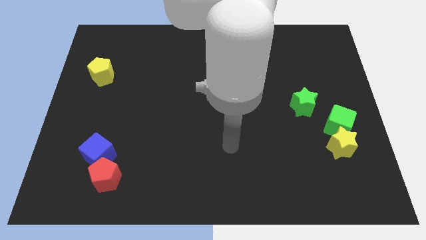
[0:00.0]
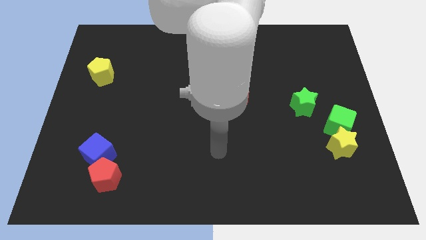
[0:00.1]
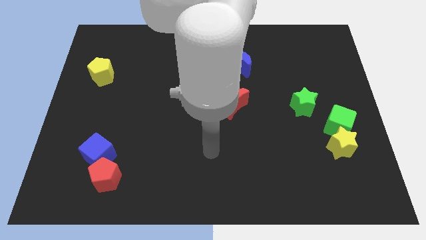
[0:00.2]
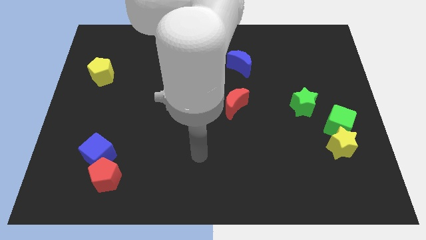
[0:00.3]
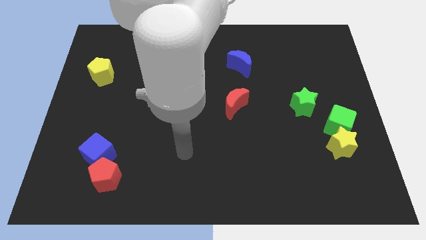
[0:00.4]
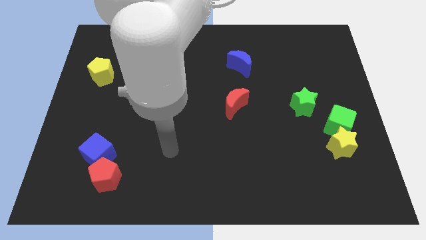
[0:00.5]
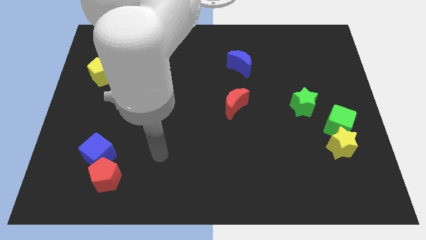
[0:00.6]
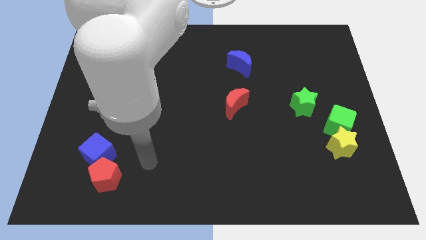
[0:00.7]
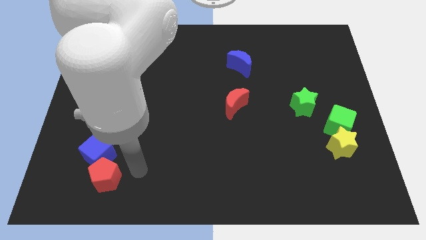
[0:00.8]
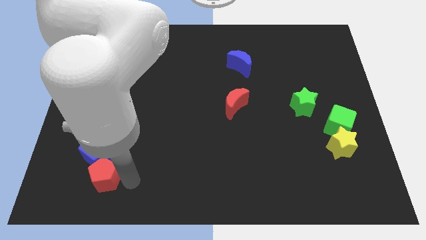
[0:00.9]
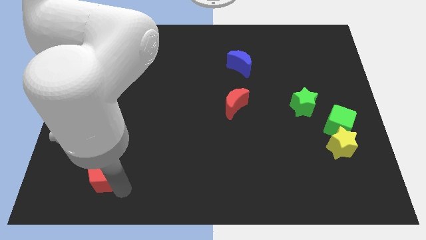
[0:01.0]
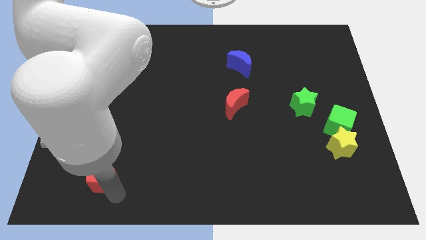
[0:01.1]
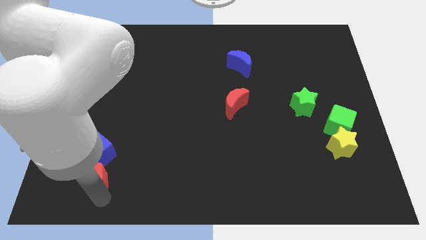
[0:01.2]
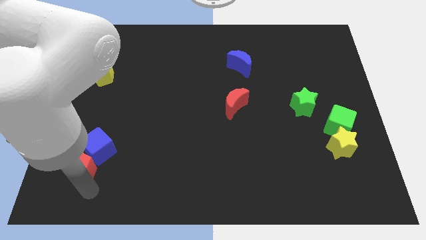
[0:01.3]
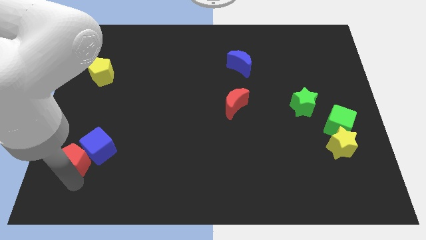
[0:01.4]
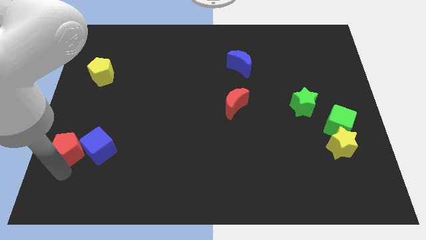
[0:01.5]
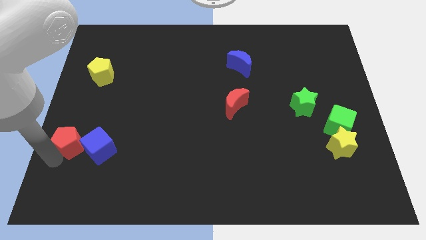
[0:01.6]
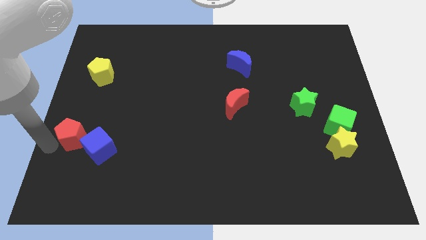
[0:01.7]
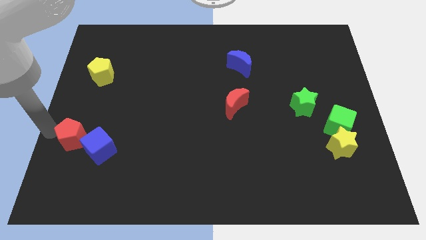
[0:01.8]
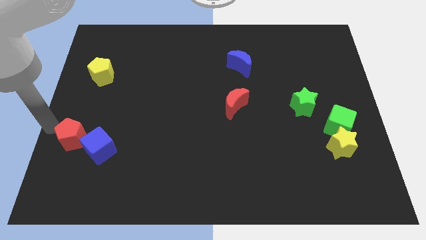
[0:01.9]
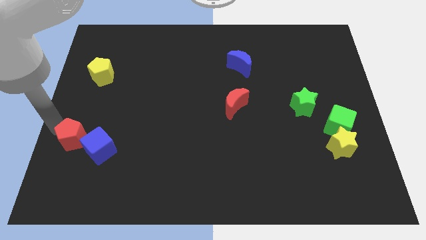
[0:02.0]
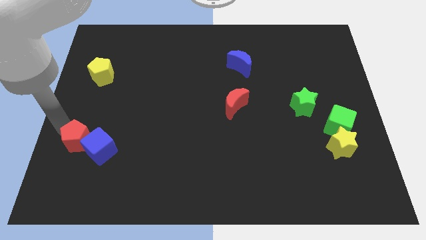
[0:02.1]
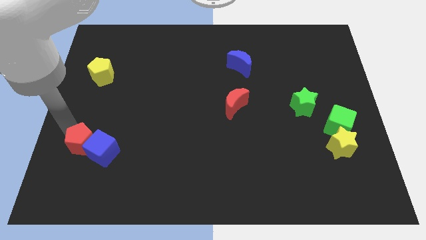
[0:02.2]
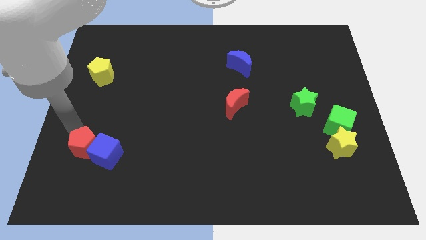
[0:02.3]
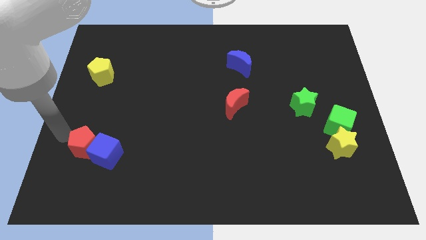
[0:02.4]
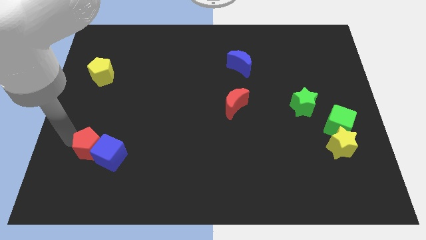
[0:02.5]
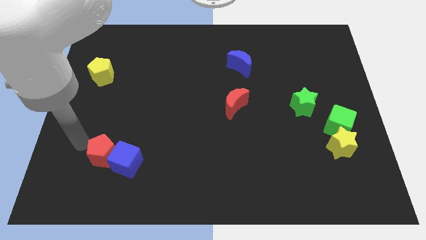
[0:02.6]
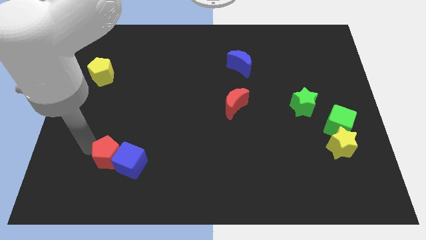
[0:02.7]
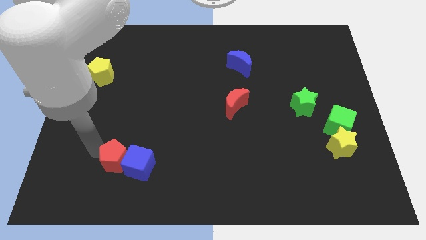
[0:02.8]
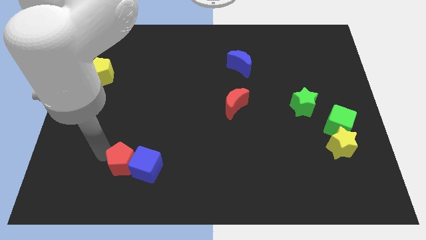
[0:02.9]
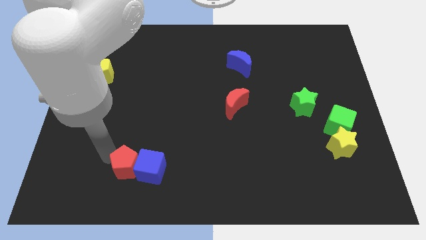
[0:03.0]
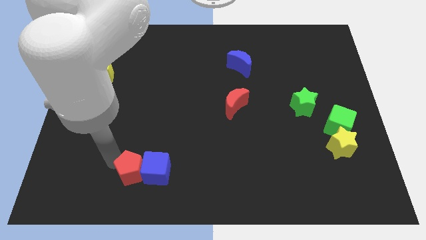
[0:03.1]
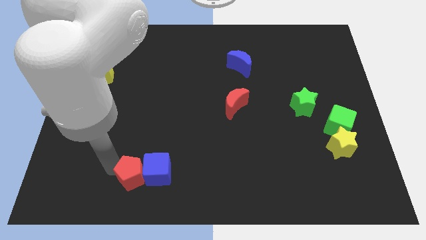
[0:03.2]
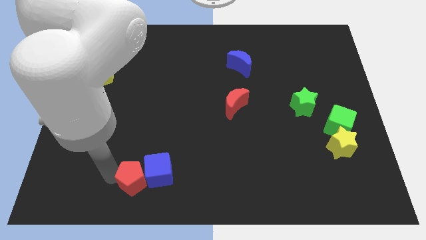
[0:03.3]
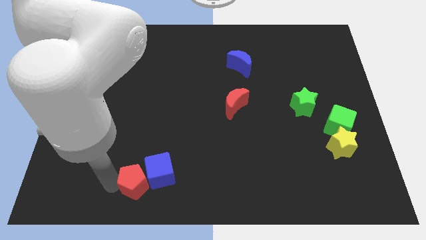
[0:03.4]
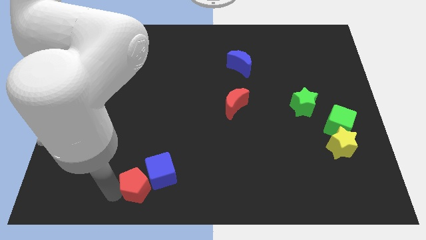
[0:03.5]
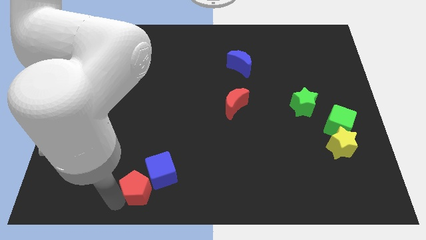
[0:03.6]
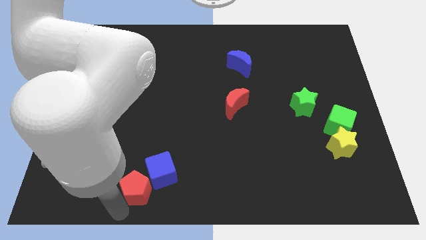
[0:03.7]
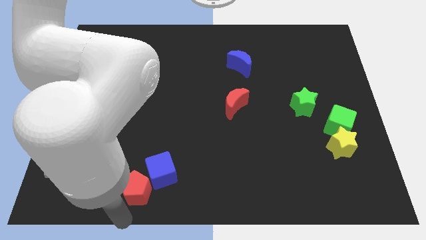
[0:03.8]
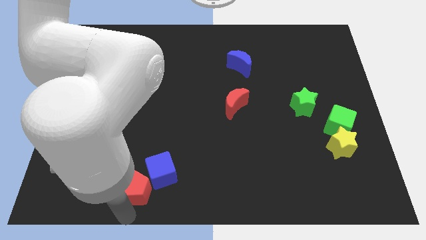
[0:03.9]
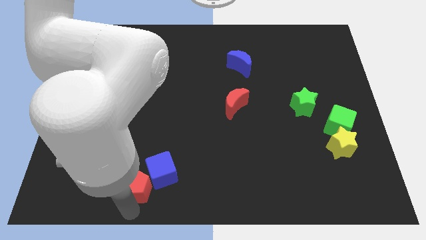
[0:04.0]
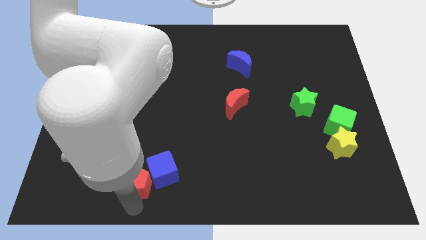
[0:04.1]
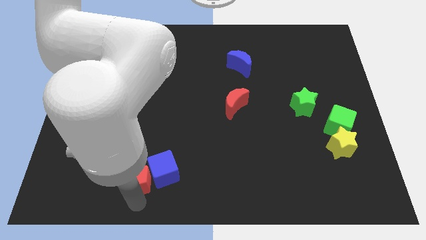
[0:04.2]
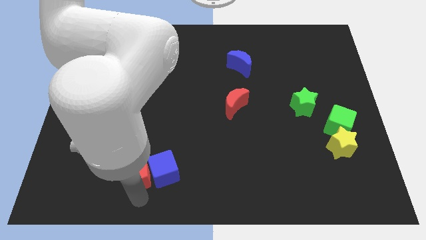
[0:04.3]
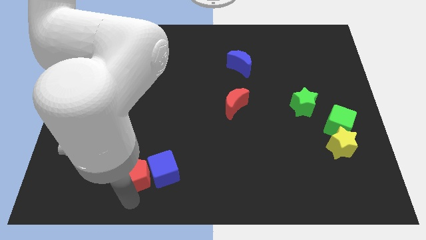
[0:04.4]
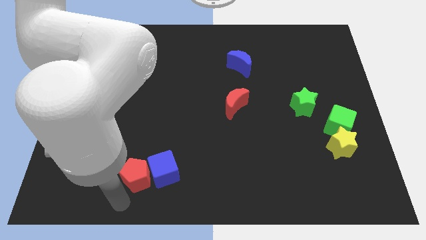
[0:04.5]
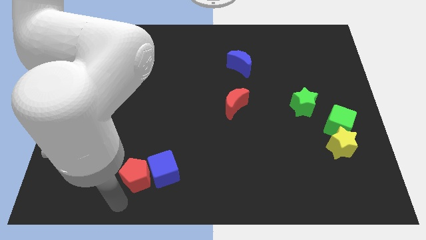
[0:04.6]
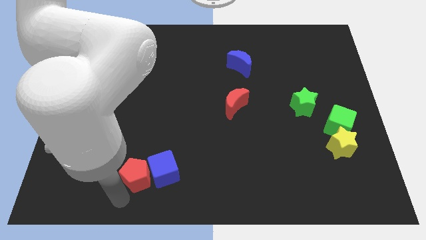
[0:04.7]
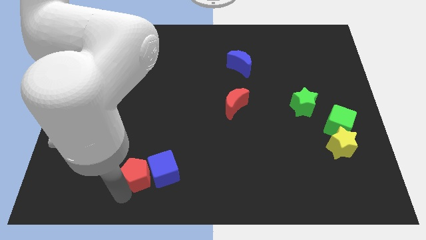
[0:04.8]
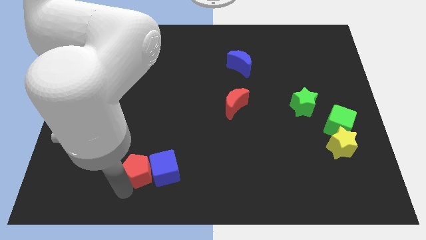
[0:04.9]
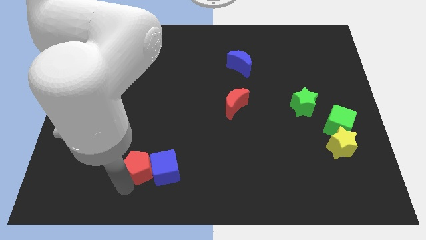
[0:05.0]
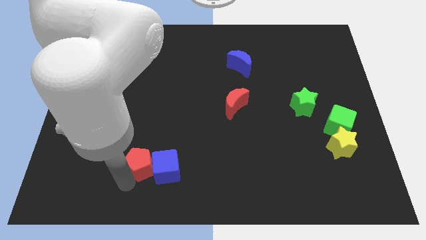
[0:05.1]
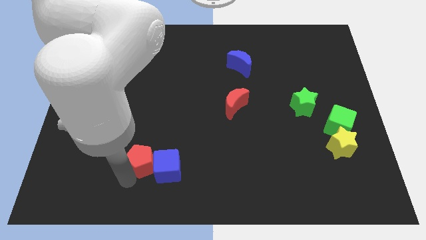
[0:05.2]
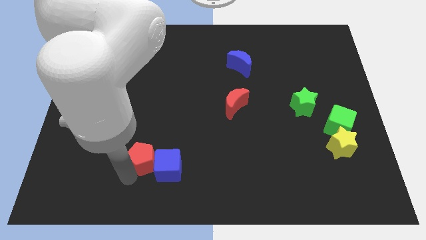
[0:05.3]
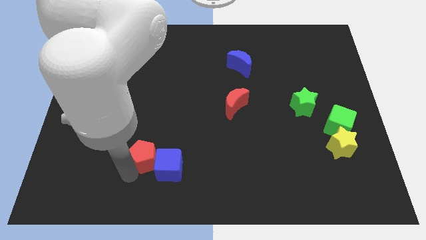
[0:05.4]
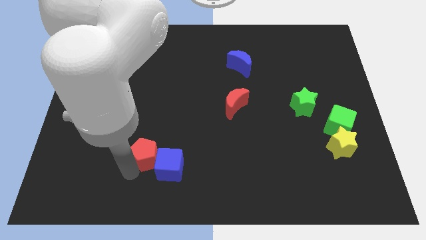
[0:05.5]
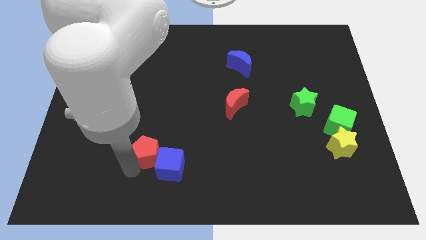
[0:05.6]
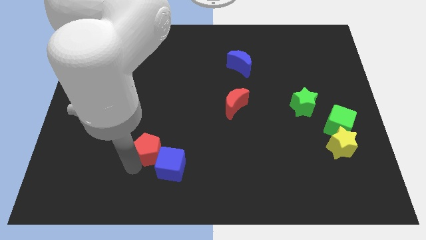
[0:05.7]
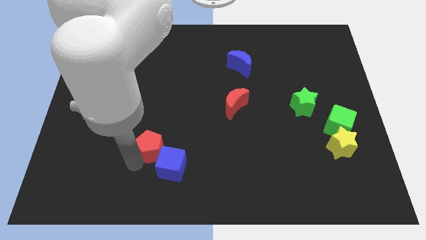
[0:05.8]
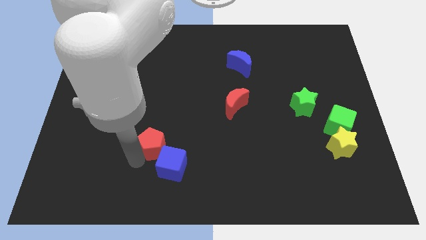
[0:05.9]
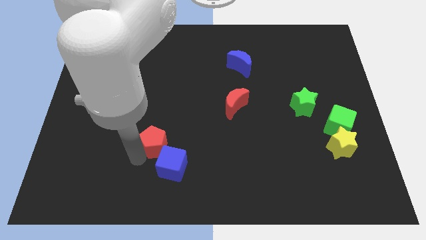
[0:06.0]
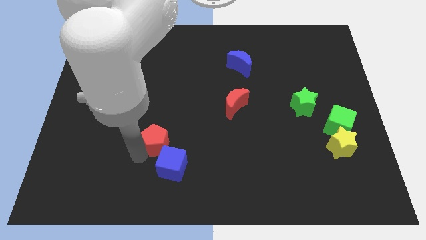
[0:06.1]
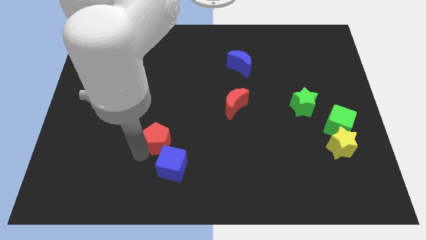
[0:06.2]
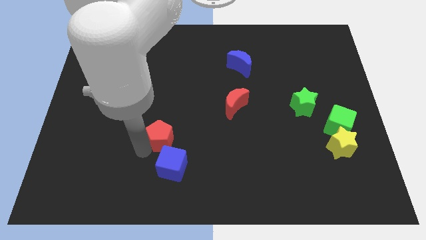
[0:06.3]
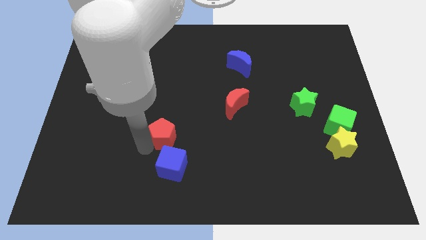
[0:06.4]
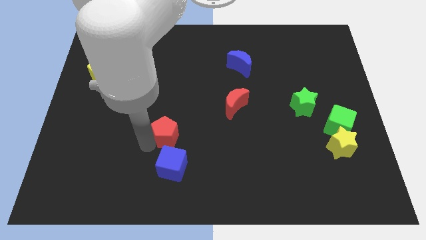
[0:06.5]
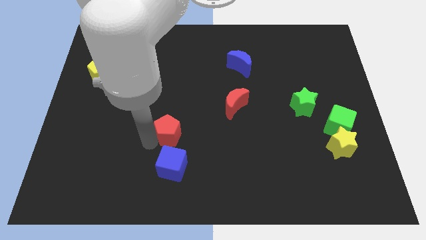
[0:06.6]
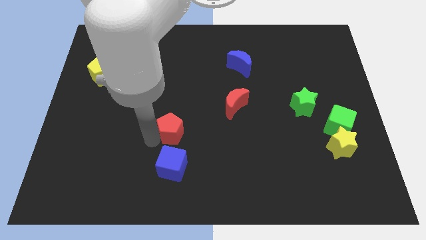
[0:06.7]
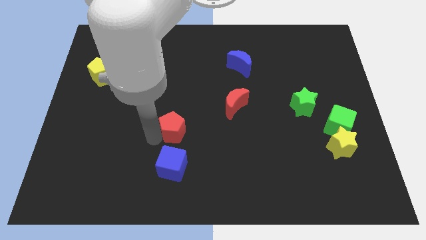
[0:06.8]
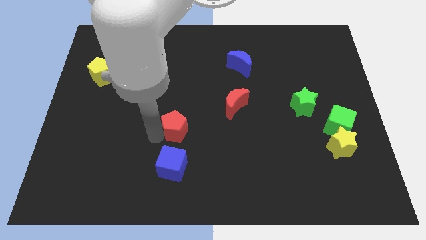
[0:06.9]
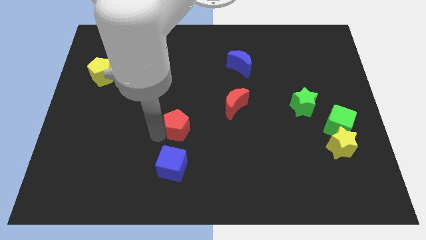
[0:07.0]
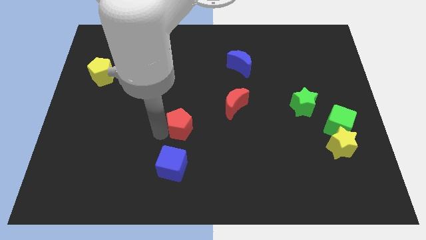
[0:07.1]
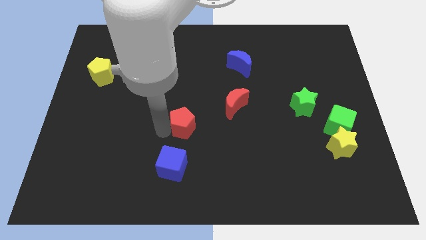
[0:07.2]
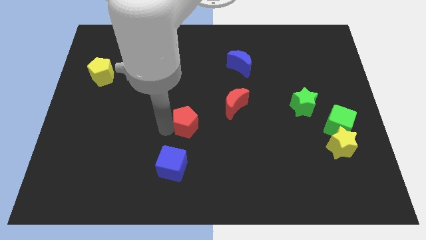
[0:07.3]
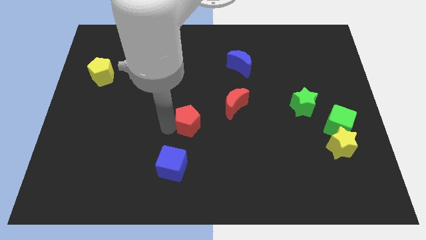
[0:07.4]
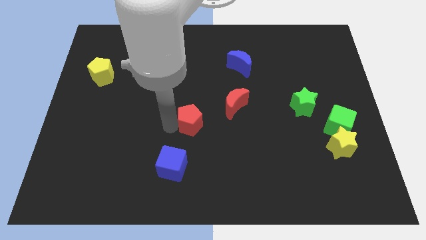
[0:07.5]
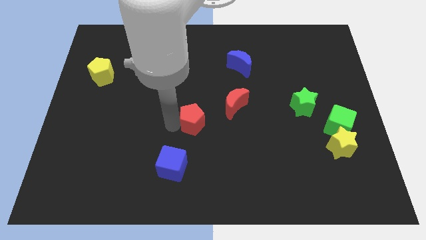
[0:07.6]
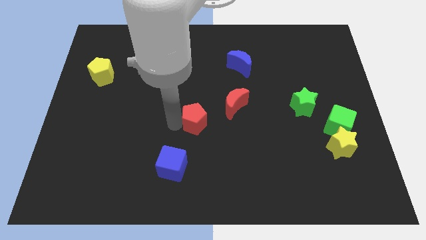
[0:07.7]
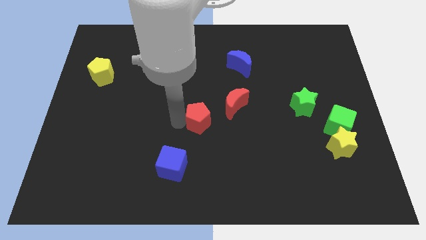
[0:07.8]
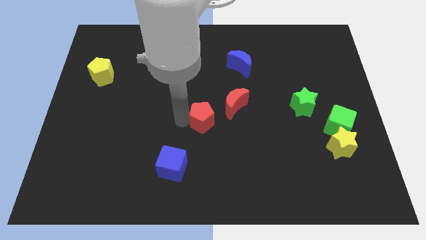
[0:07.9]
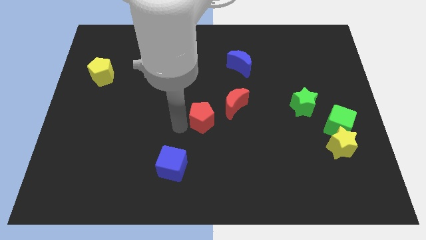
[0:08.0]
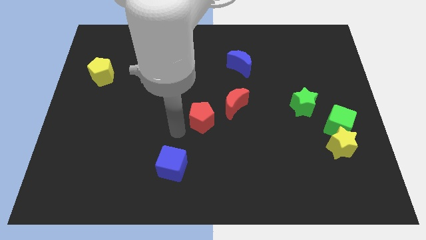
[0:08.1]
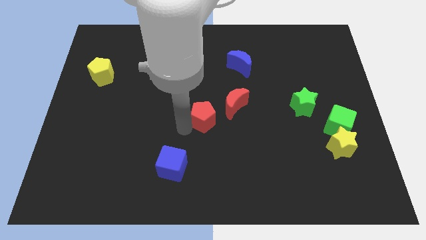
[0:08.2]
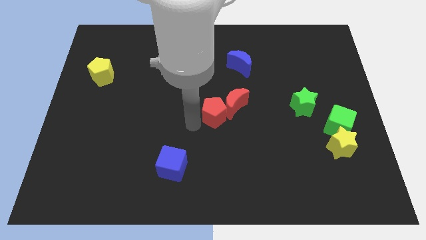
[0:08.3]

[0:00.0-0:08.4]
push the red pentagon close to the red moon
